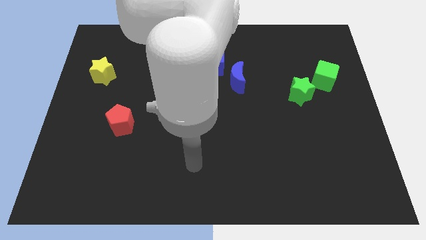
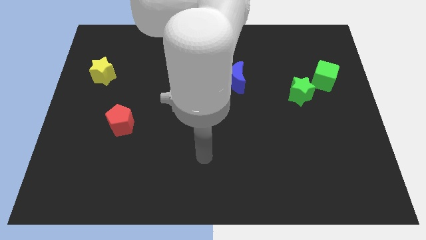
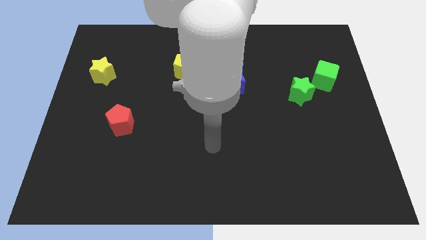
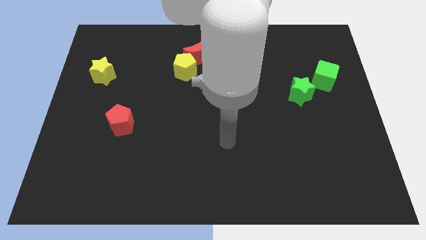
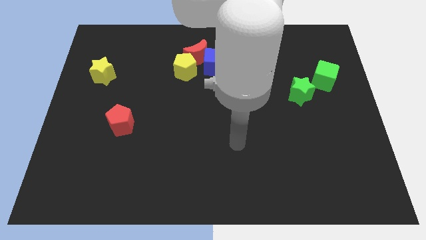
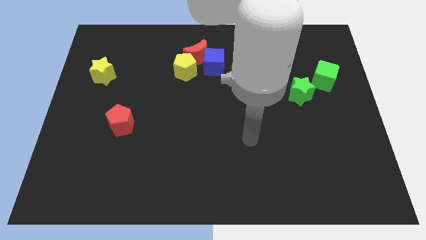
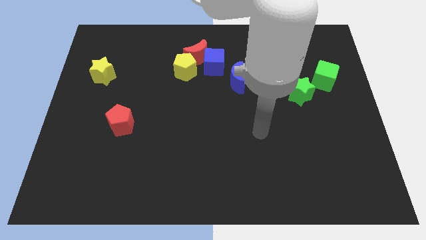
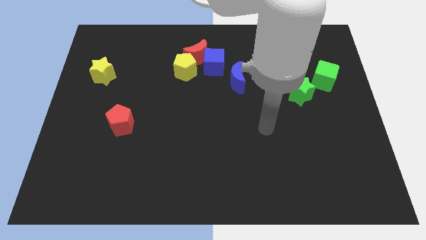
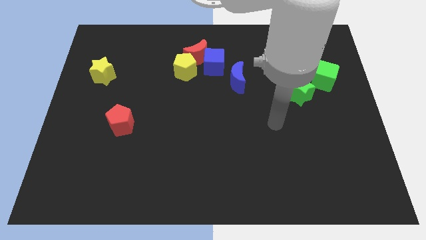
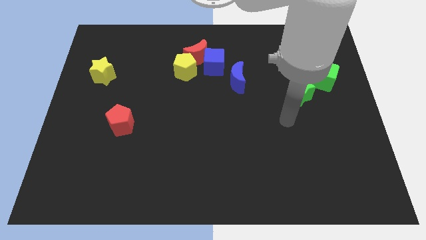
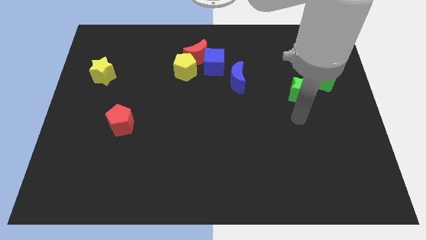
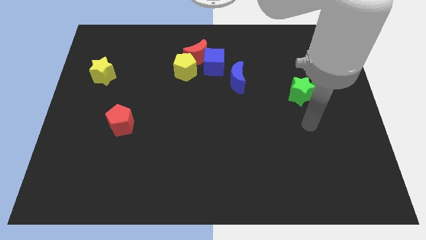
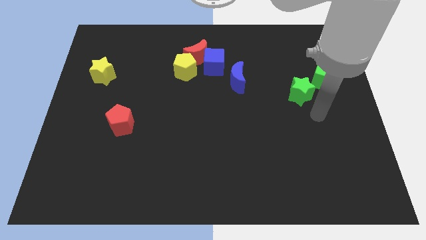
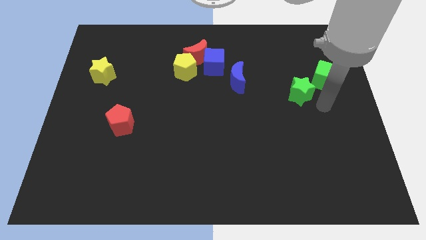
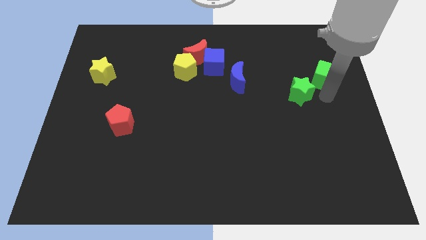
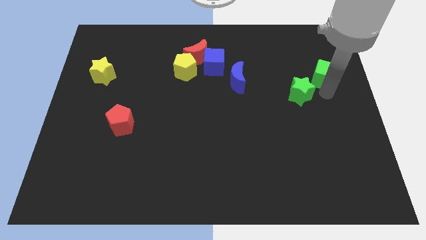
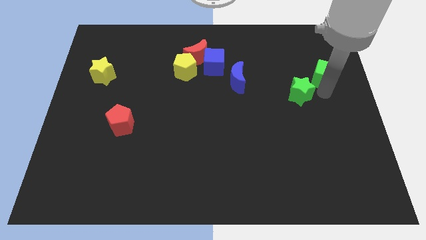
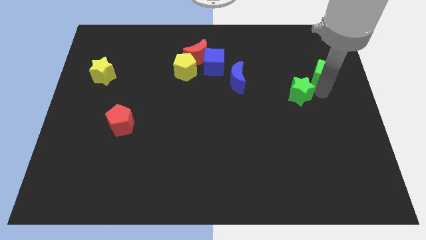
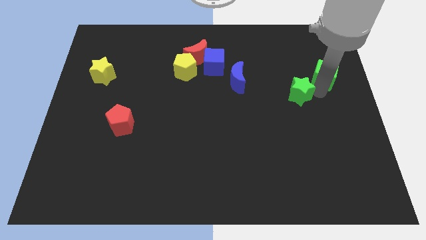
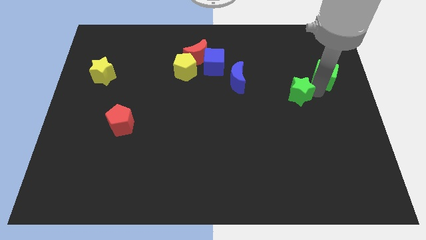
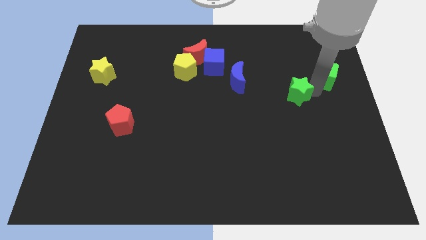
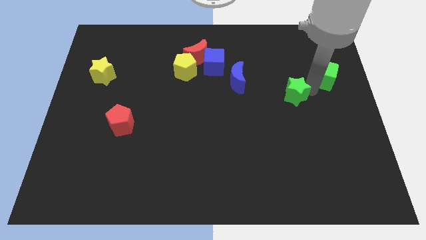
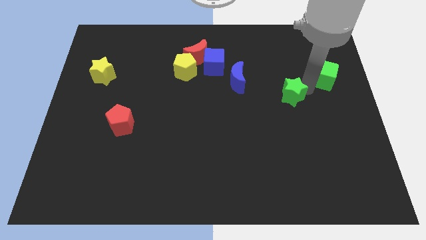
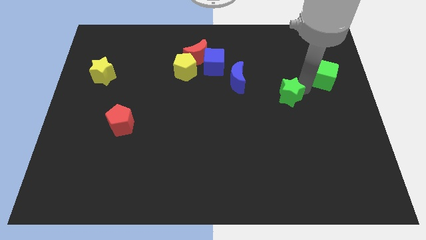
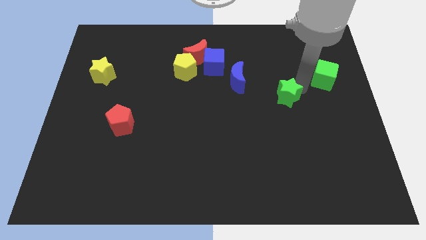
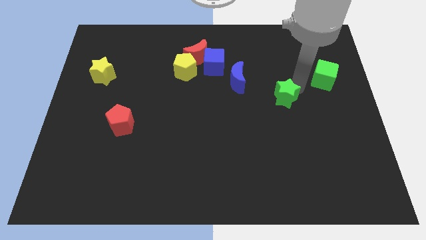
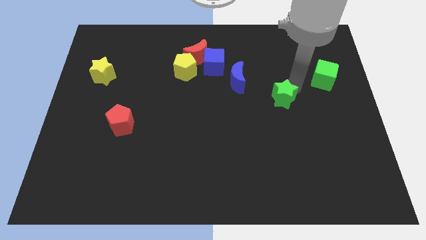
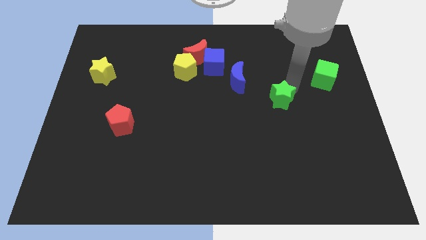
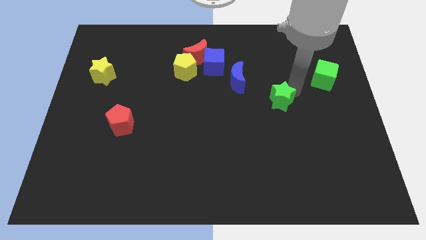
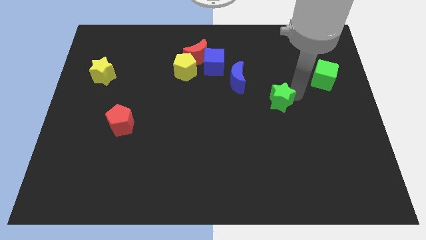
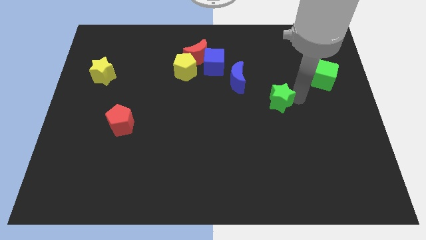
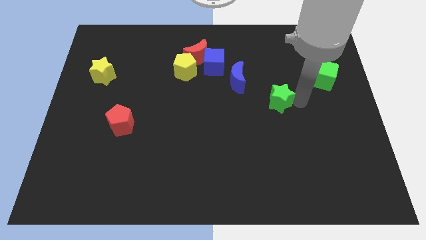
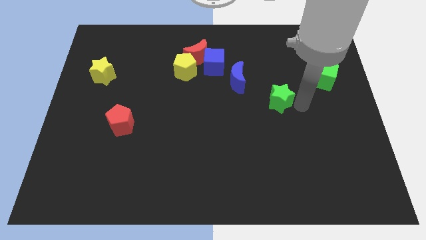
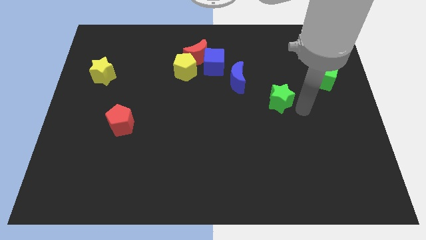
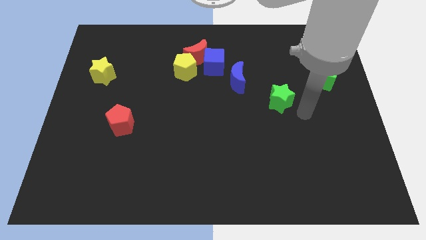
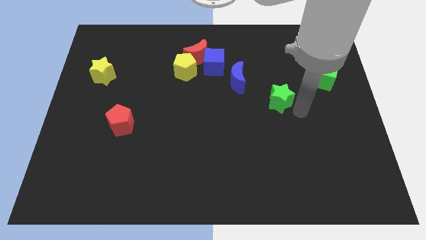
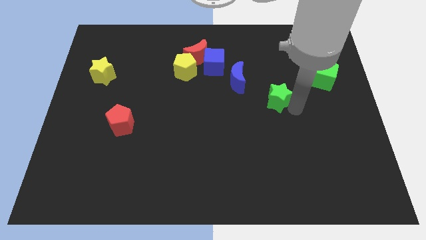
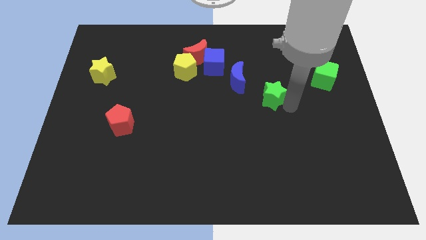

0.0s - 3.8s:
push the green star to the left a bit

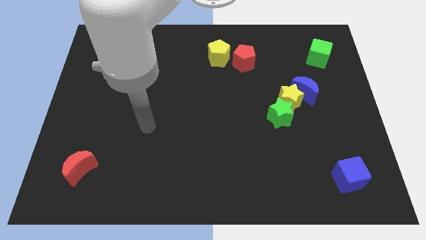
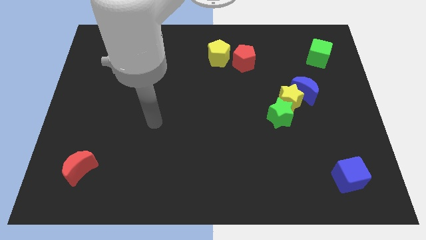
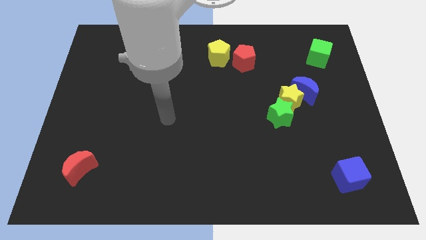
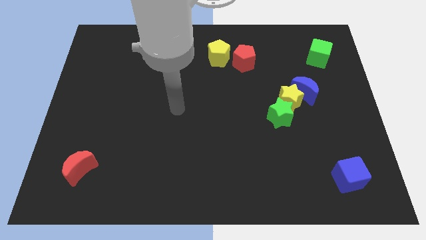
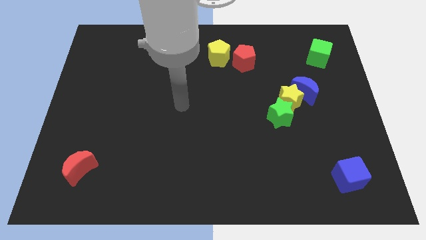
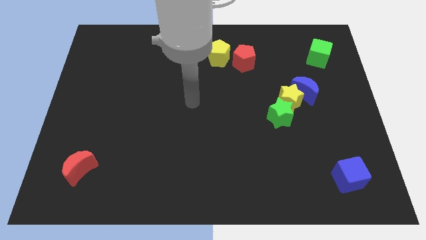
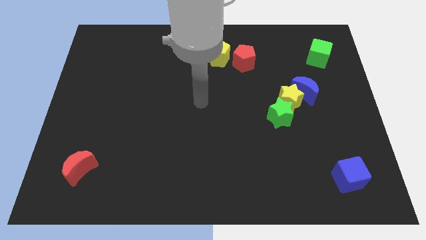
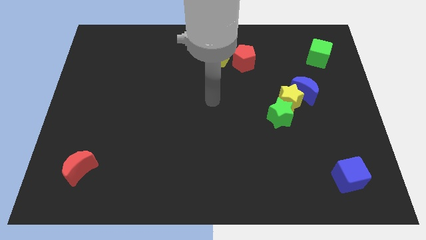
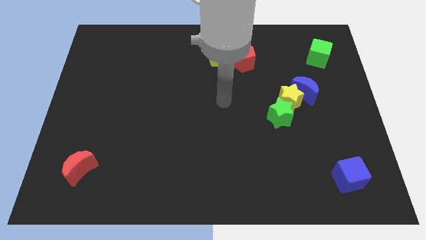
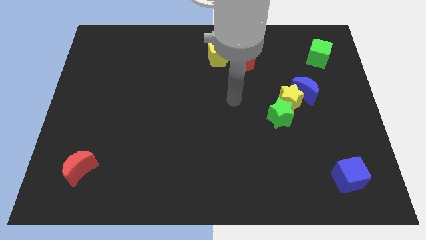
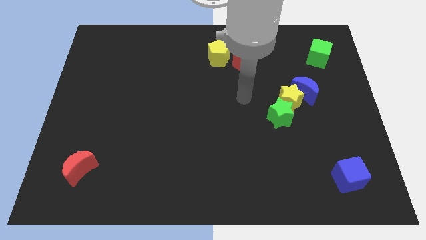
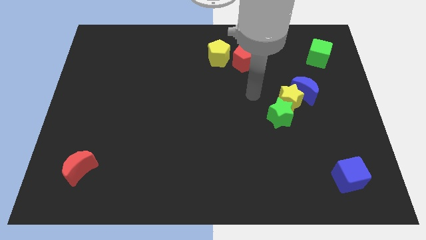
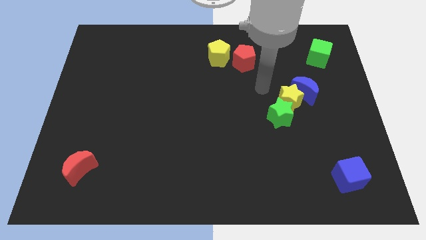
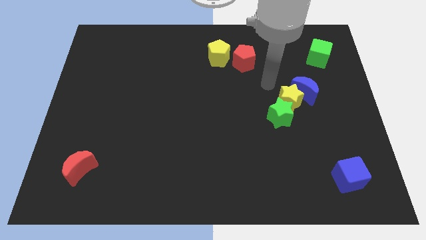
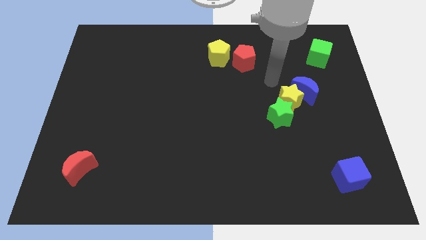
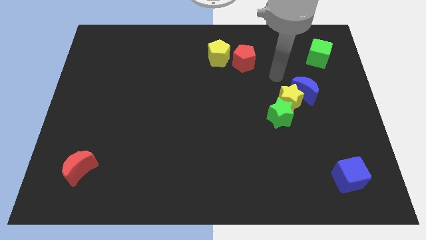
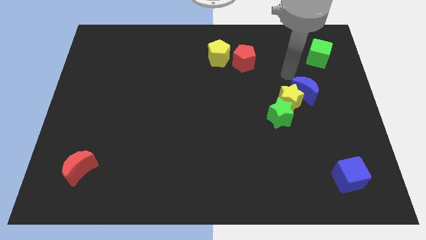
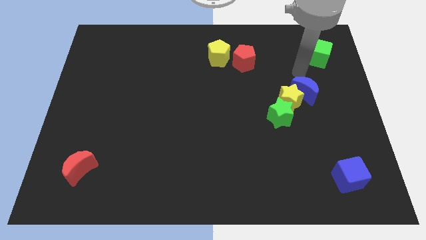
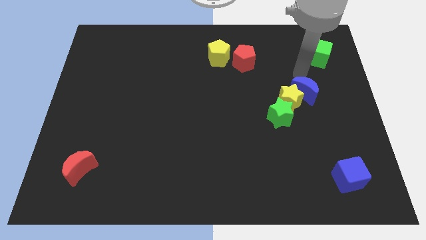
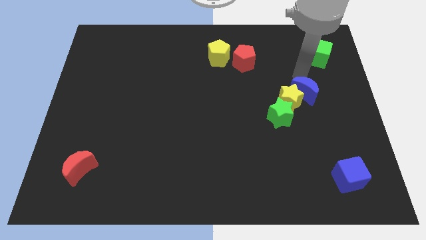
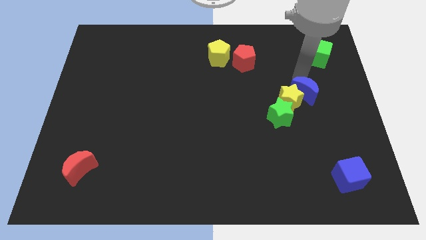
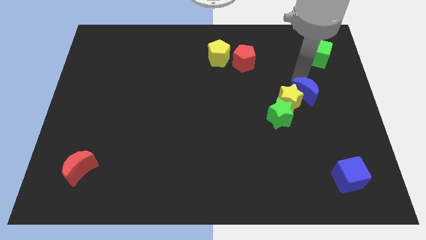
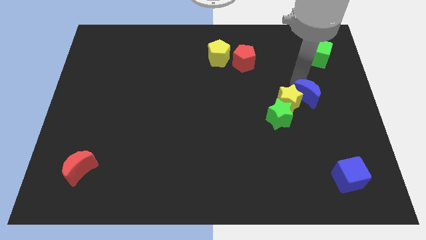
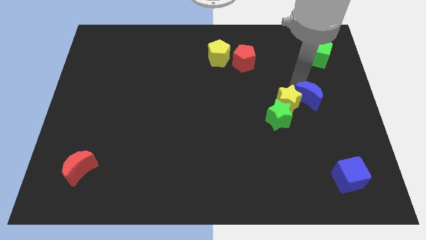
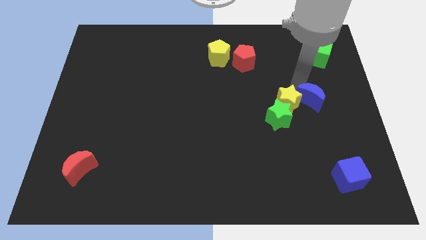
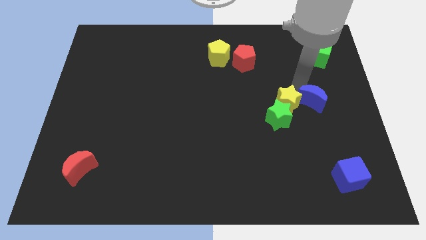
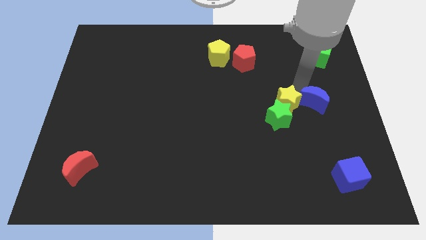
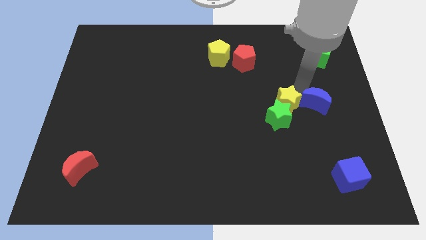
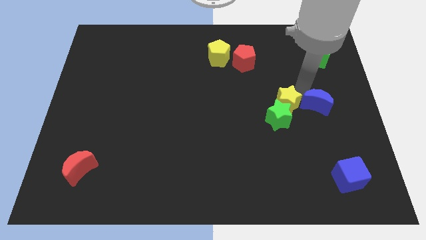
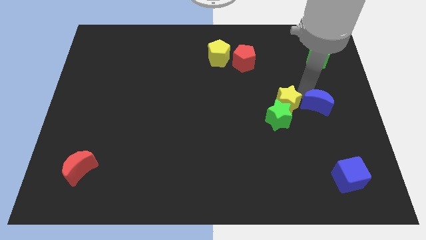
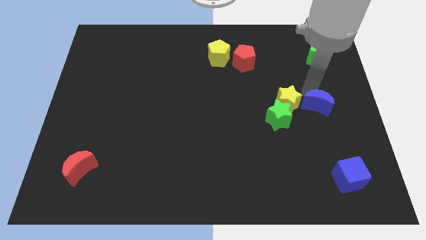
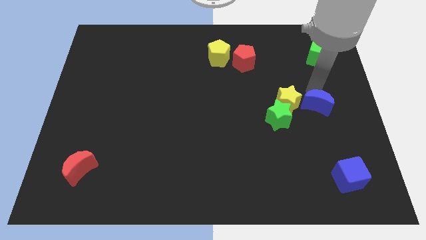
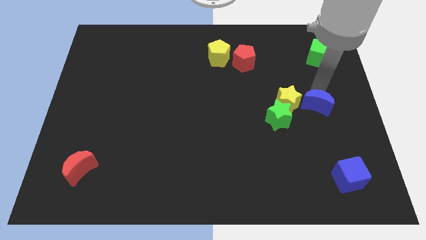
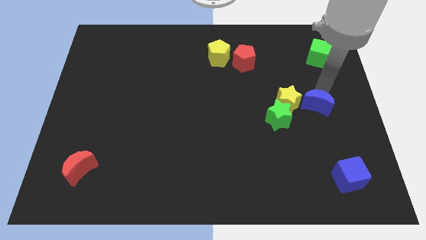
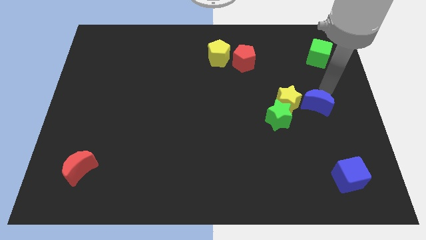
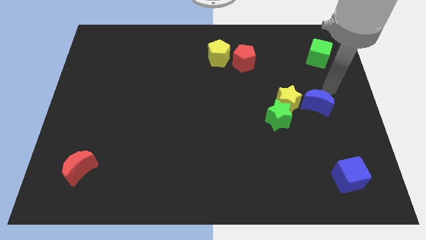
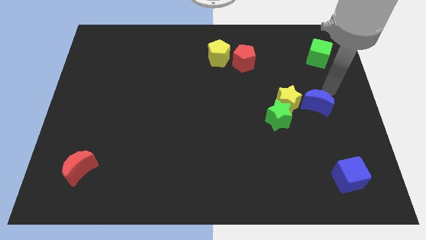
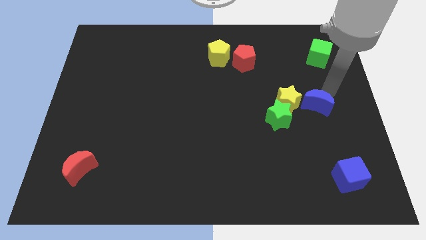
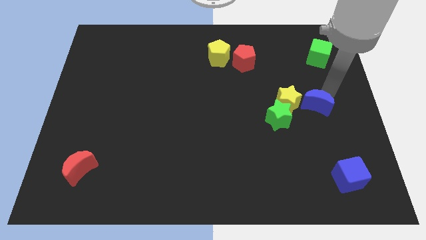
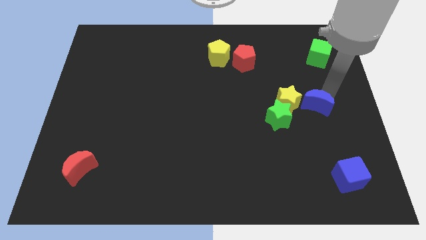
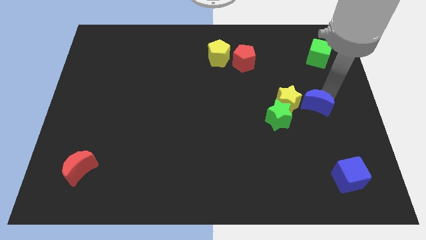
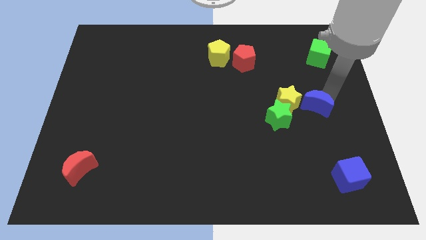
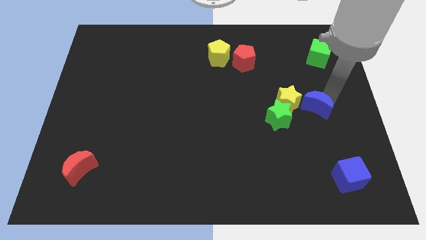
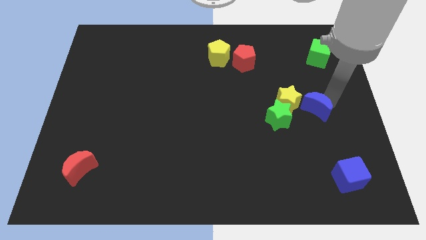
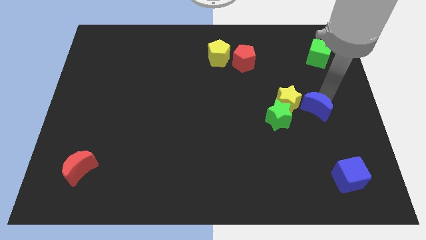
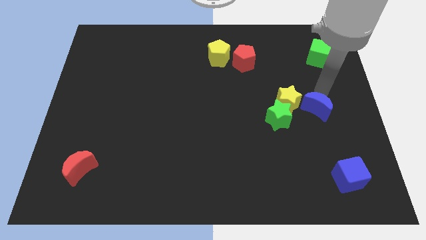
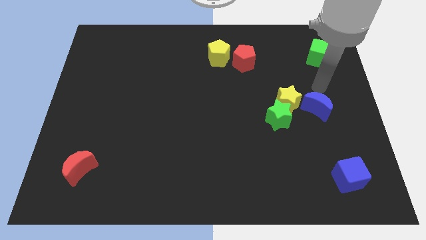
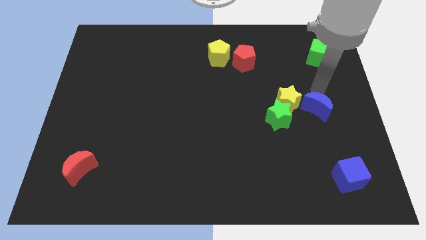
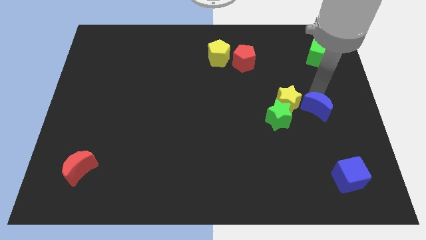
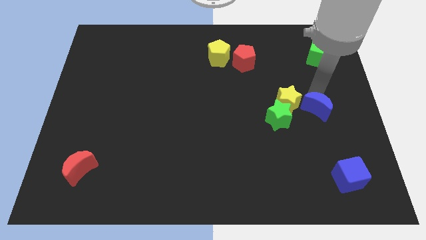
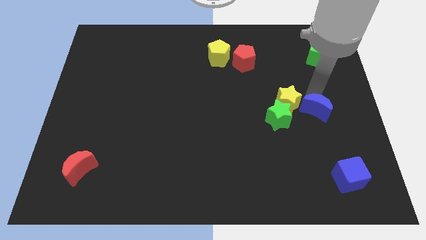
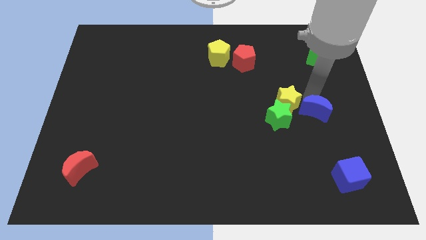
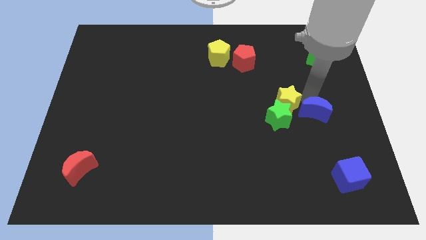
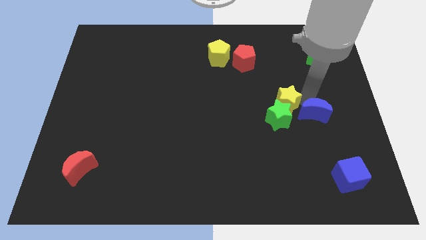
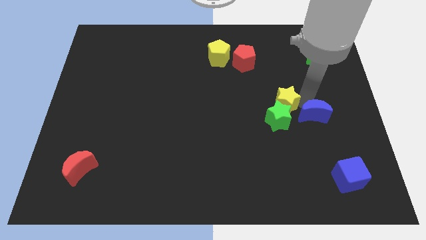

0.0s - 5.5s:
push the blue moon a bit down
